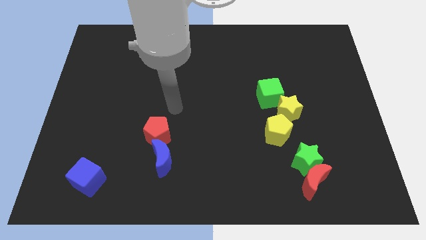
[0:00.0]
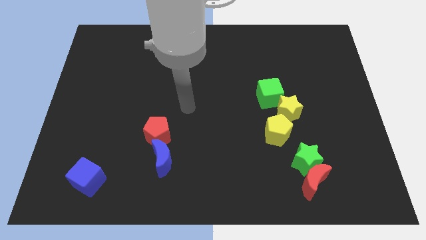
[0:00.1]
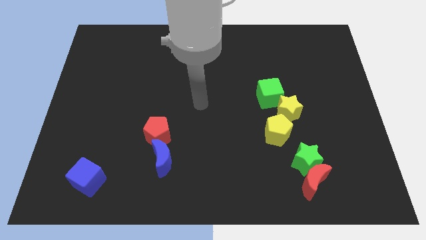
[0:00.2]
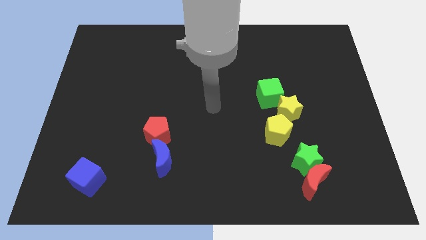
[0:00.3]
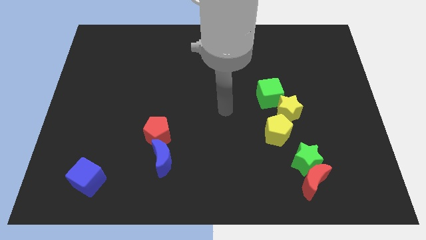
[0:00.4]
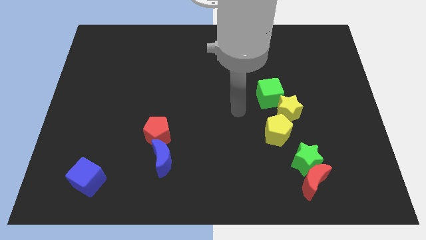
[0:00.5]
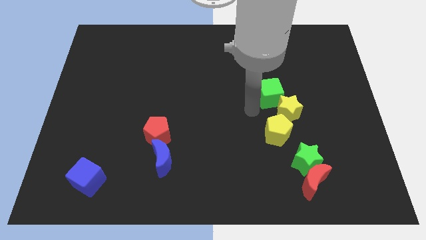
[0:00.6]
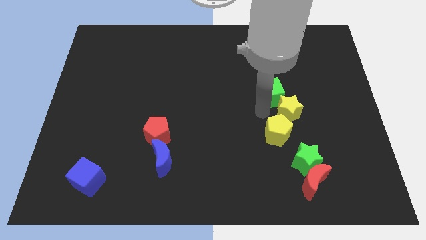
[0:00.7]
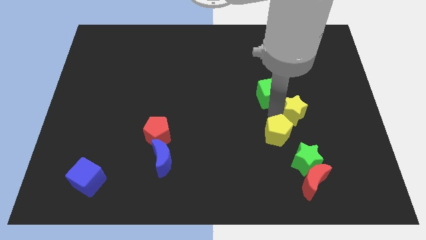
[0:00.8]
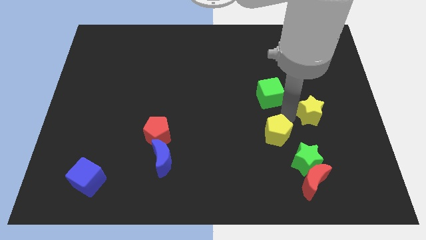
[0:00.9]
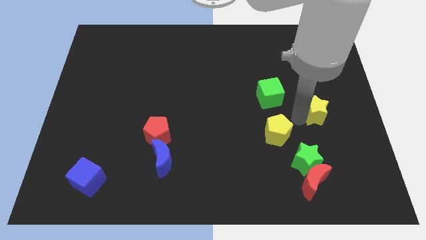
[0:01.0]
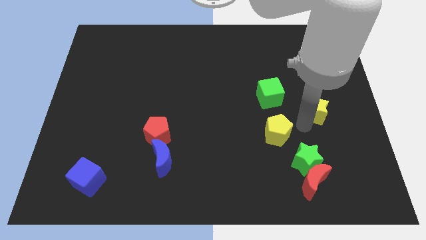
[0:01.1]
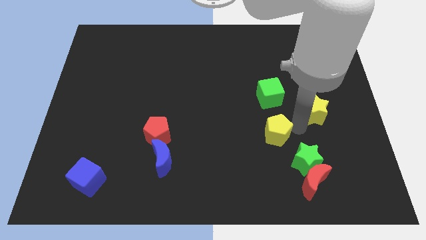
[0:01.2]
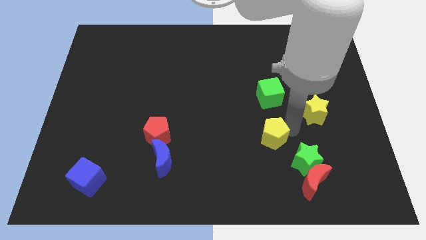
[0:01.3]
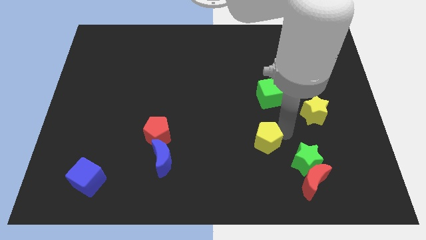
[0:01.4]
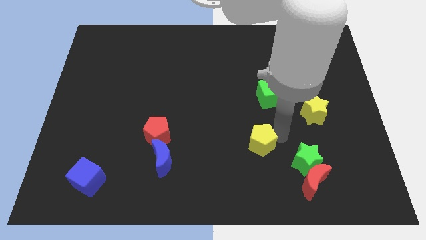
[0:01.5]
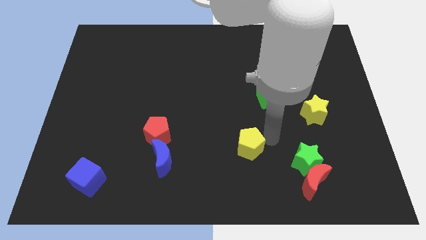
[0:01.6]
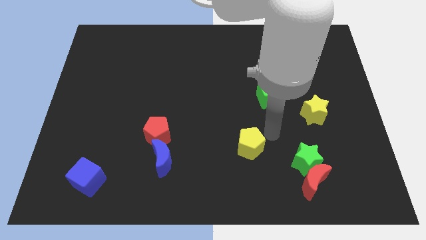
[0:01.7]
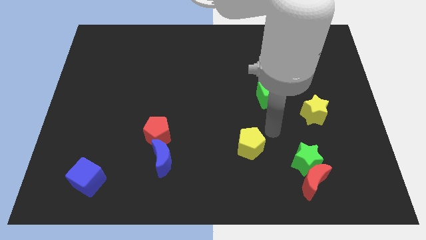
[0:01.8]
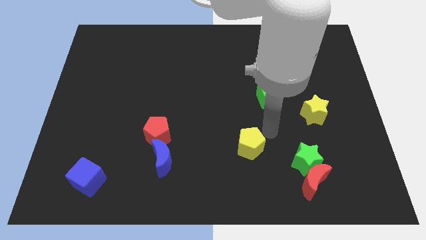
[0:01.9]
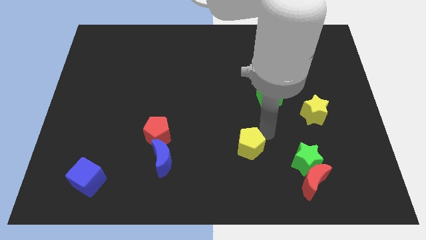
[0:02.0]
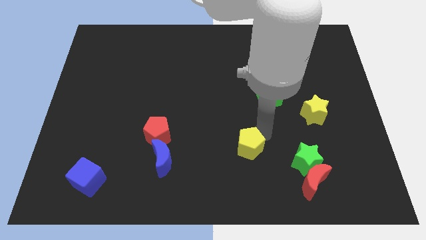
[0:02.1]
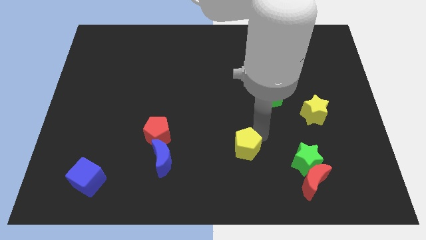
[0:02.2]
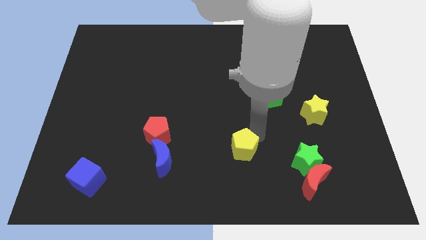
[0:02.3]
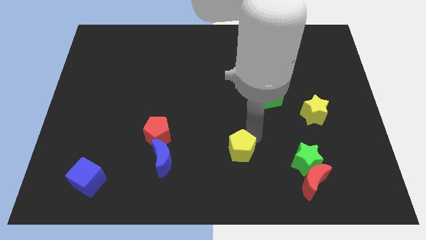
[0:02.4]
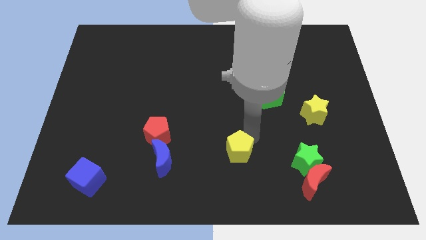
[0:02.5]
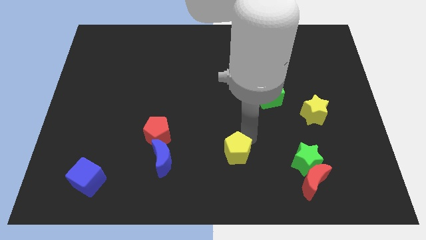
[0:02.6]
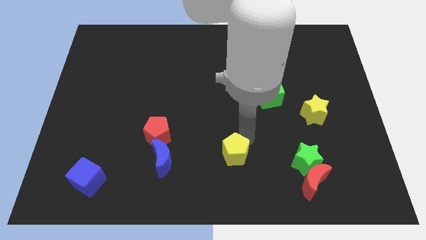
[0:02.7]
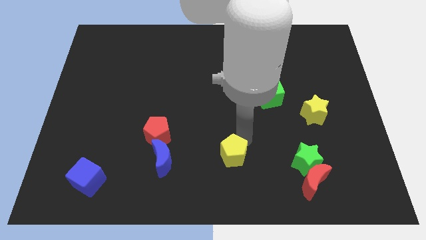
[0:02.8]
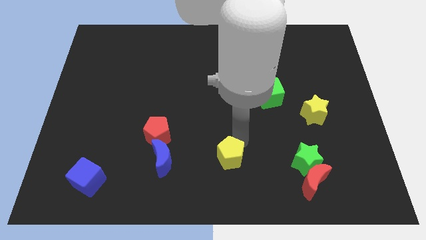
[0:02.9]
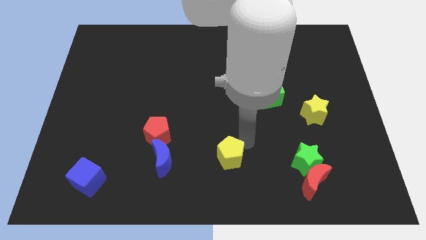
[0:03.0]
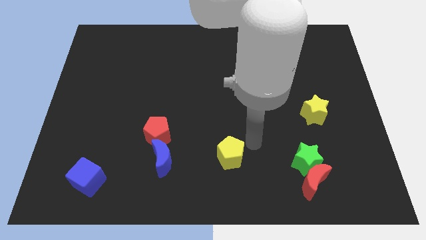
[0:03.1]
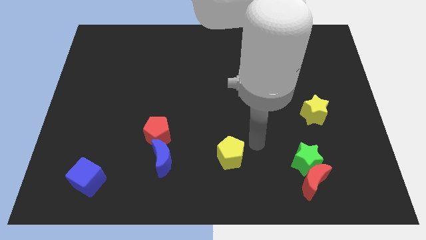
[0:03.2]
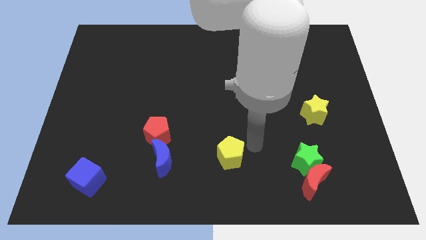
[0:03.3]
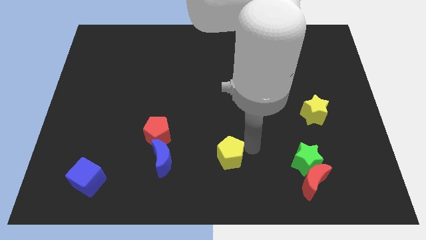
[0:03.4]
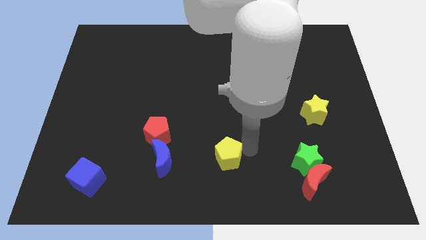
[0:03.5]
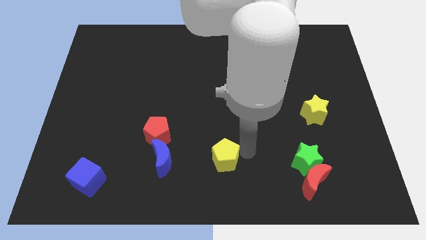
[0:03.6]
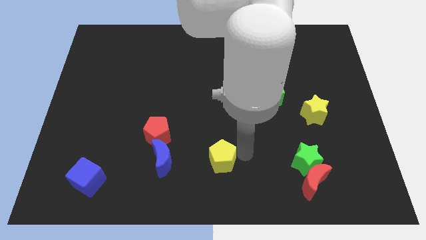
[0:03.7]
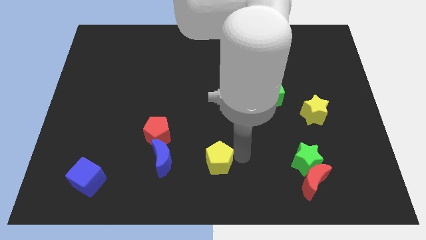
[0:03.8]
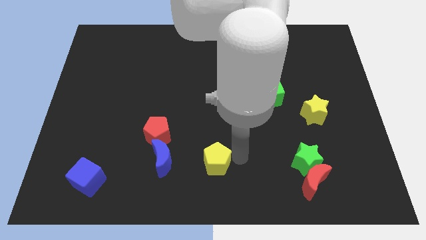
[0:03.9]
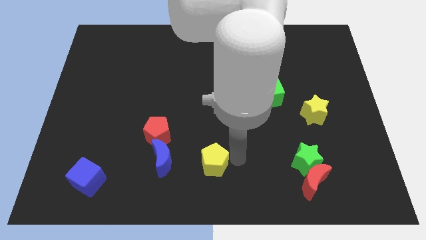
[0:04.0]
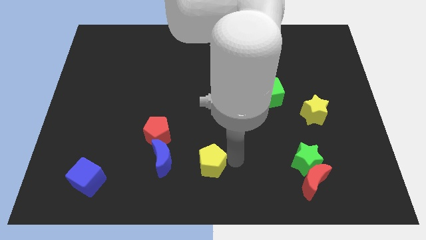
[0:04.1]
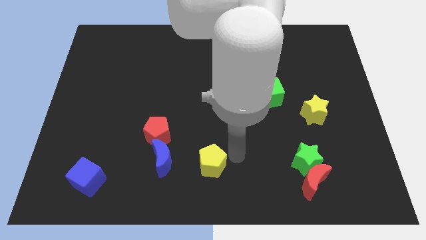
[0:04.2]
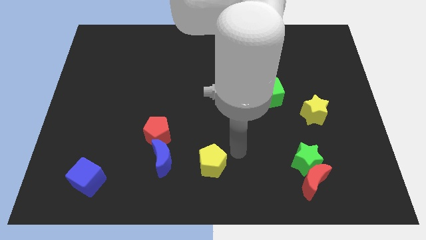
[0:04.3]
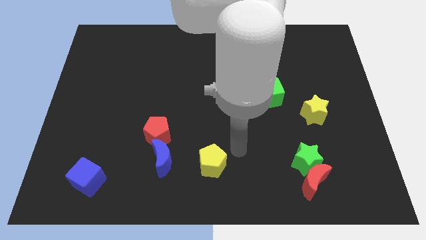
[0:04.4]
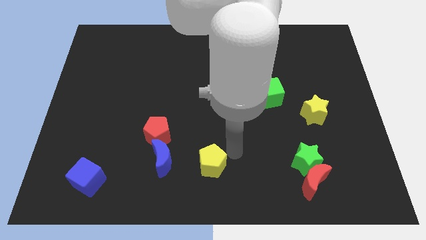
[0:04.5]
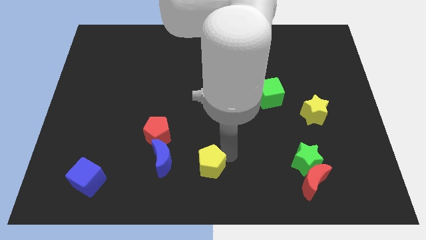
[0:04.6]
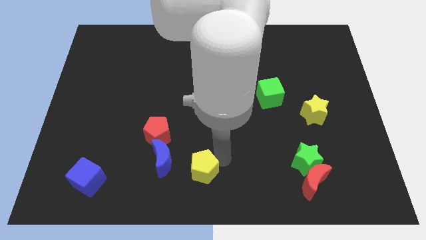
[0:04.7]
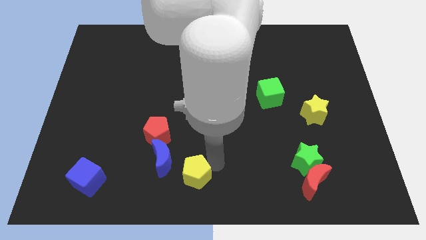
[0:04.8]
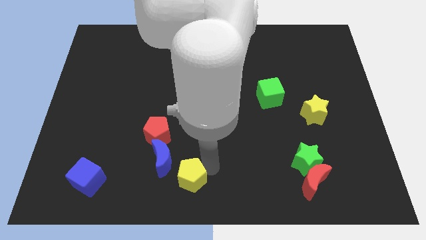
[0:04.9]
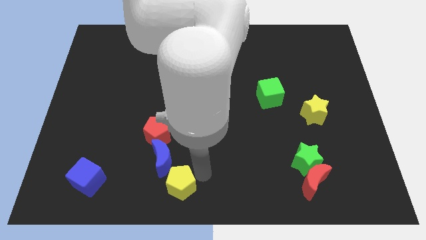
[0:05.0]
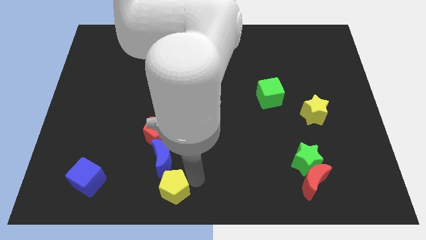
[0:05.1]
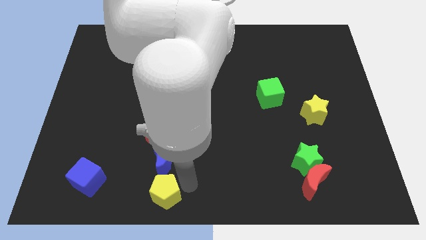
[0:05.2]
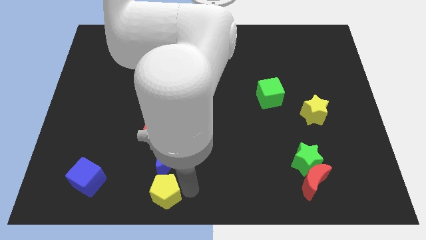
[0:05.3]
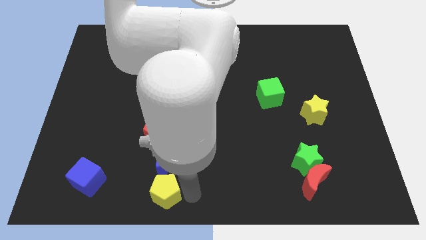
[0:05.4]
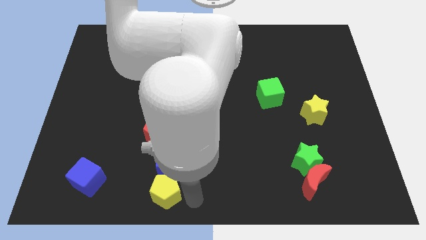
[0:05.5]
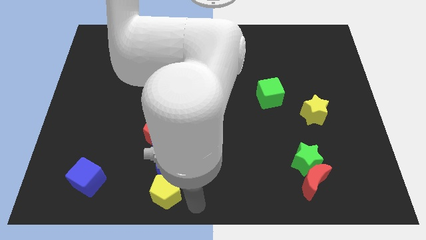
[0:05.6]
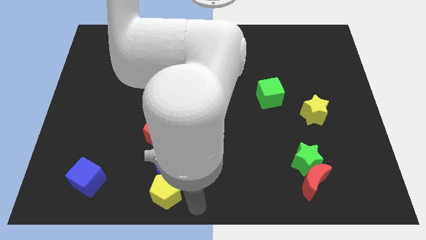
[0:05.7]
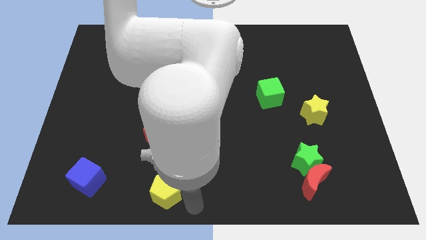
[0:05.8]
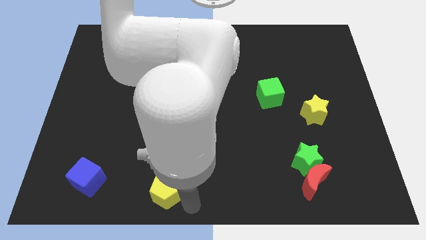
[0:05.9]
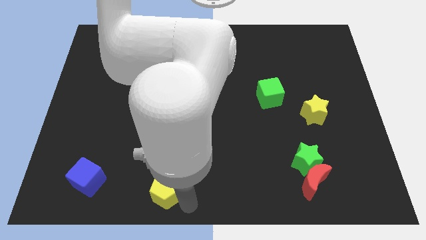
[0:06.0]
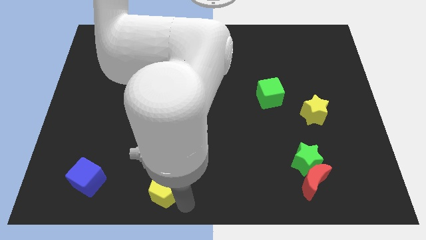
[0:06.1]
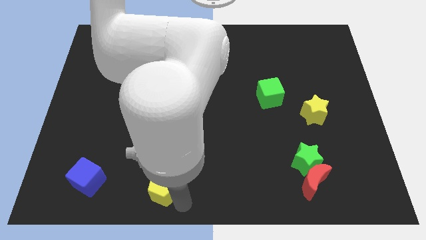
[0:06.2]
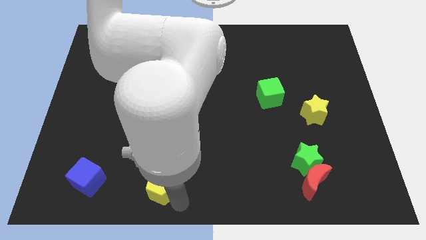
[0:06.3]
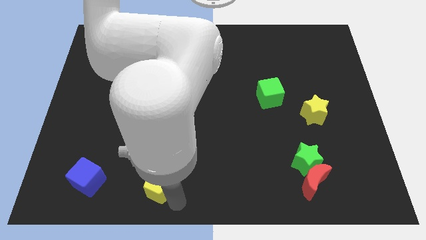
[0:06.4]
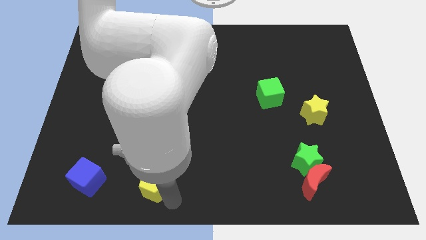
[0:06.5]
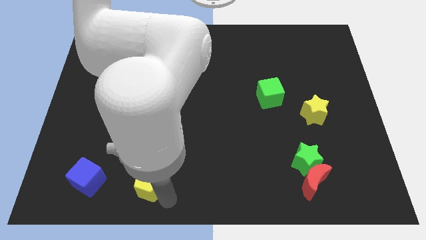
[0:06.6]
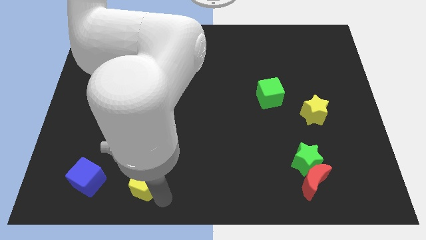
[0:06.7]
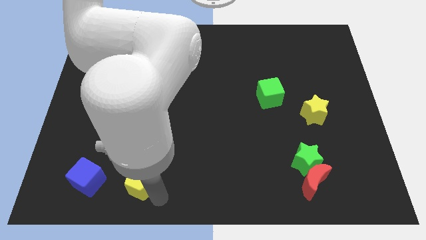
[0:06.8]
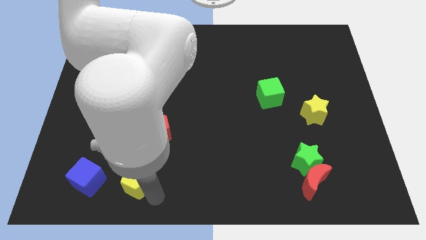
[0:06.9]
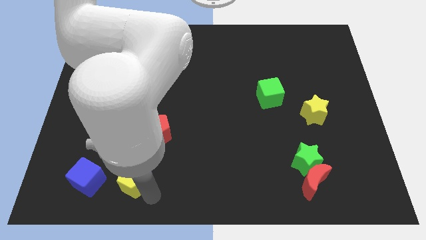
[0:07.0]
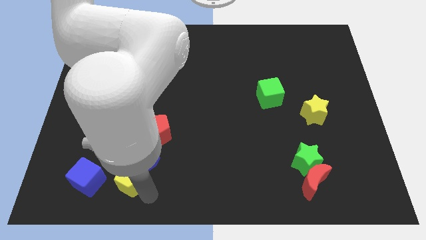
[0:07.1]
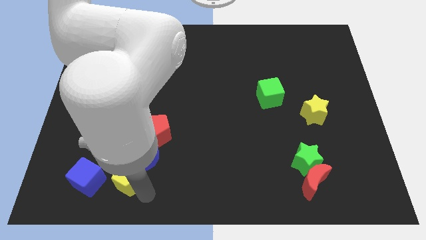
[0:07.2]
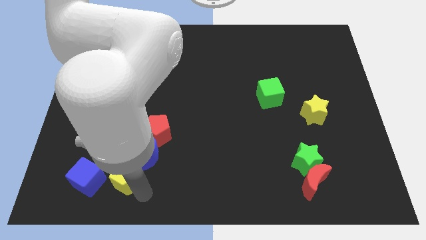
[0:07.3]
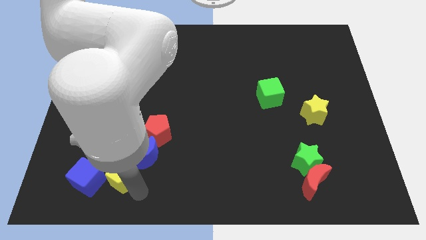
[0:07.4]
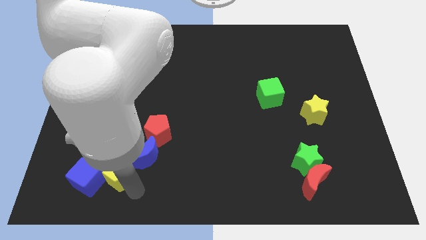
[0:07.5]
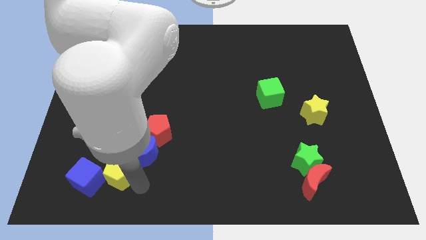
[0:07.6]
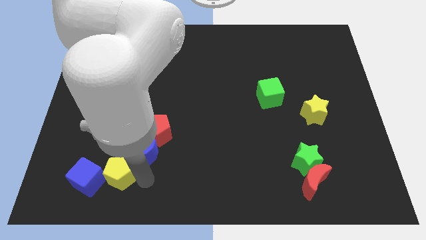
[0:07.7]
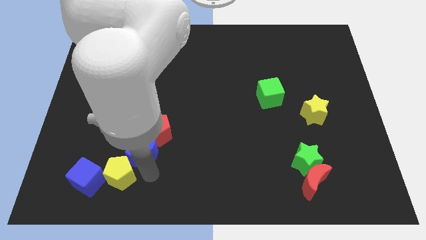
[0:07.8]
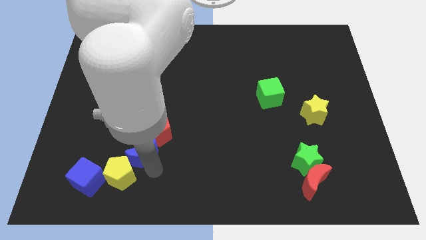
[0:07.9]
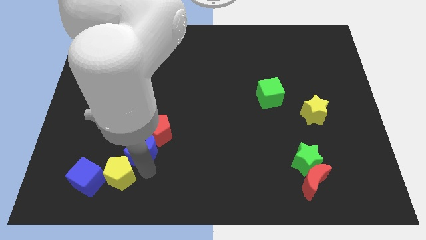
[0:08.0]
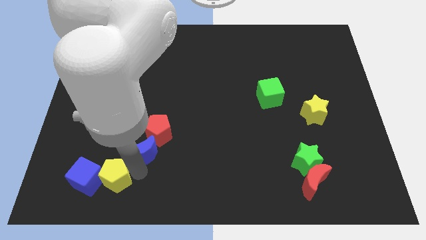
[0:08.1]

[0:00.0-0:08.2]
move the yellow pentagon to the blue cube
